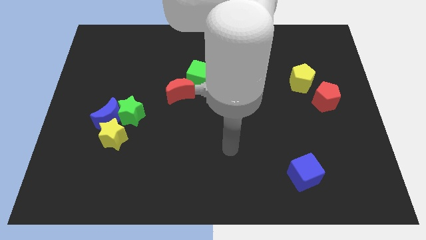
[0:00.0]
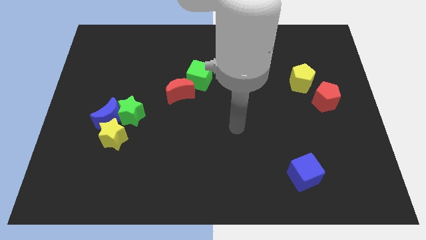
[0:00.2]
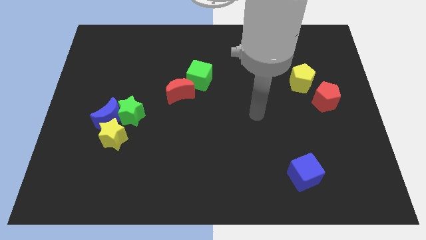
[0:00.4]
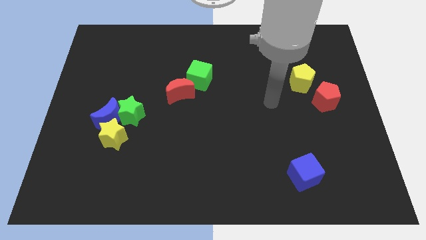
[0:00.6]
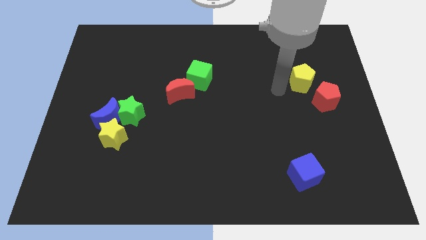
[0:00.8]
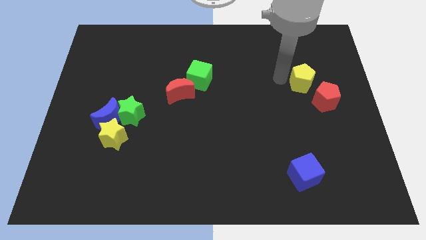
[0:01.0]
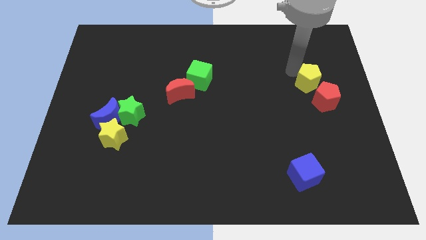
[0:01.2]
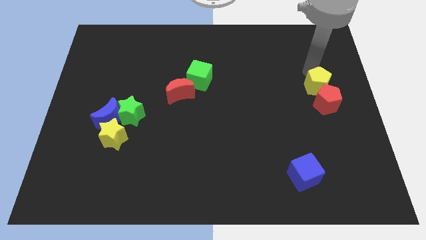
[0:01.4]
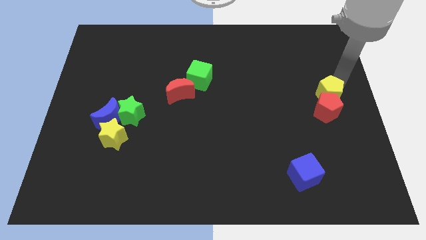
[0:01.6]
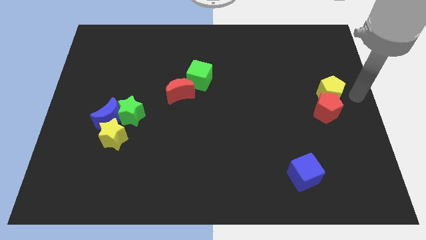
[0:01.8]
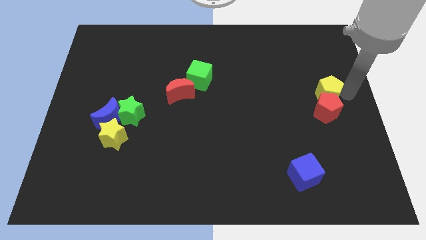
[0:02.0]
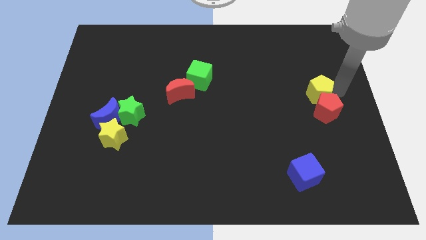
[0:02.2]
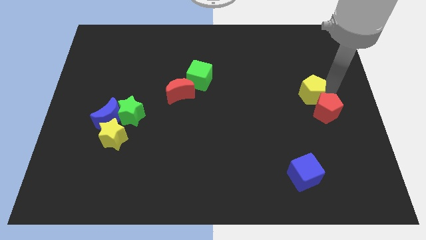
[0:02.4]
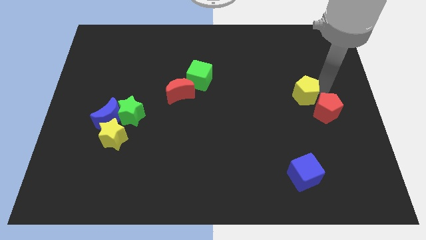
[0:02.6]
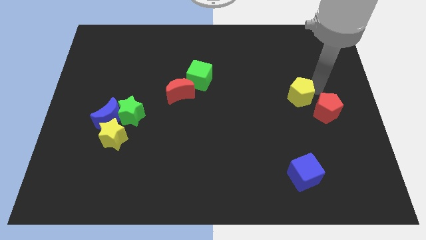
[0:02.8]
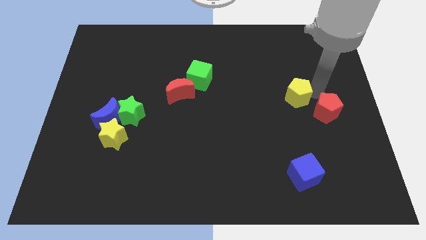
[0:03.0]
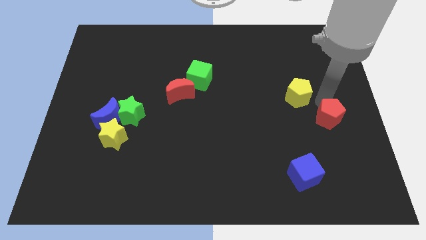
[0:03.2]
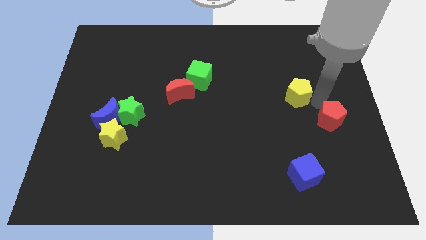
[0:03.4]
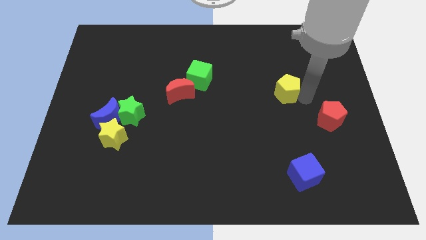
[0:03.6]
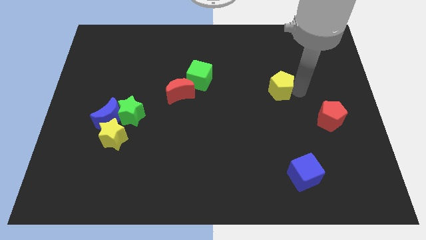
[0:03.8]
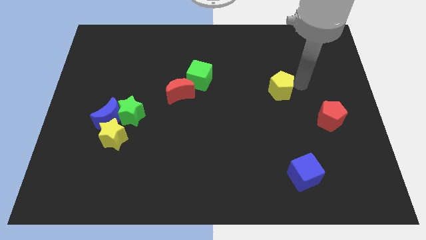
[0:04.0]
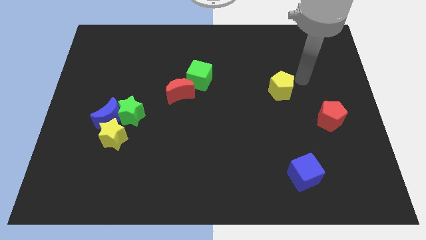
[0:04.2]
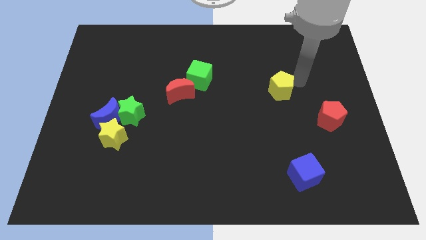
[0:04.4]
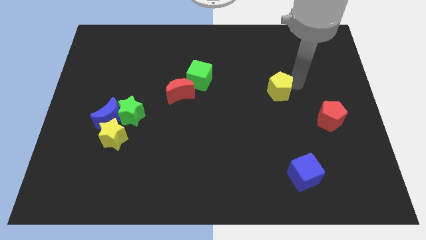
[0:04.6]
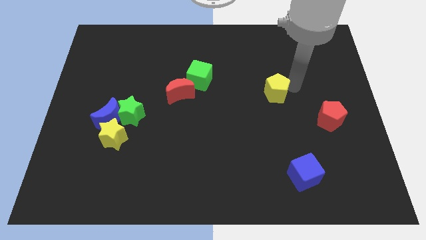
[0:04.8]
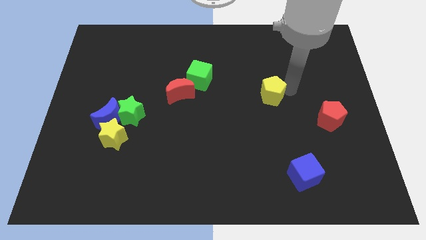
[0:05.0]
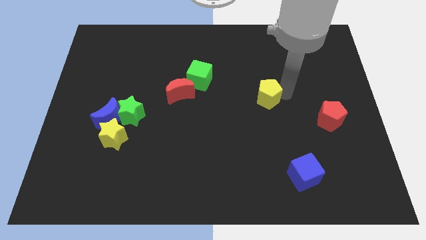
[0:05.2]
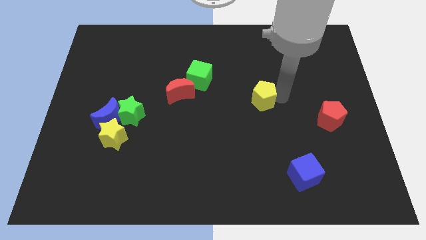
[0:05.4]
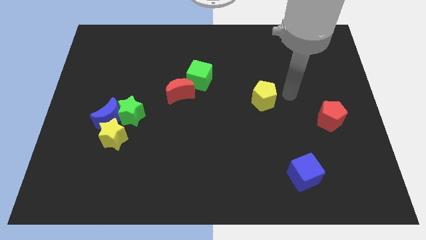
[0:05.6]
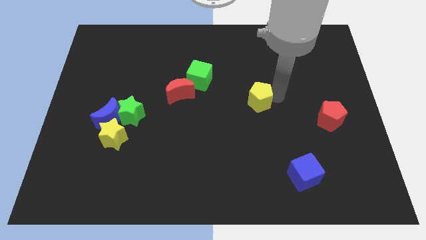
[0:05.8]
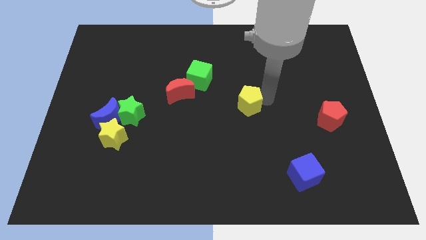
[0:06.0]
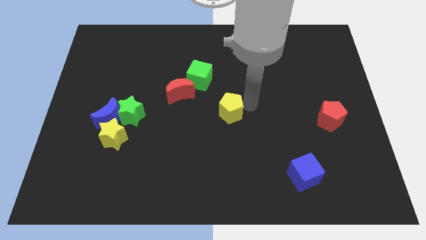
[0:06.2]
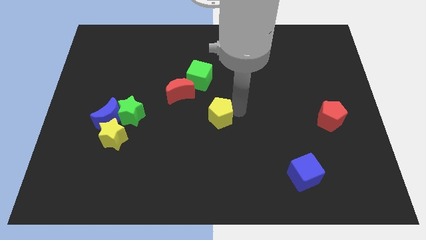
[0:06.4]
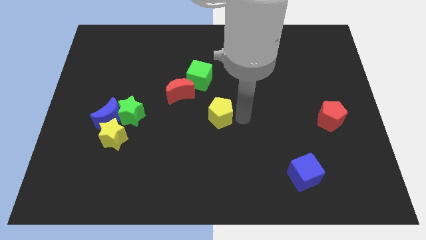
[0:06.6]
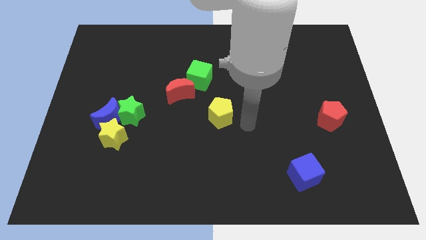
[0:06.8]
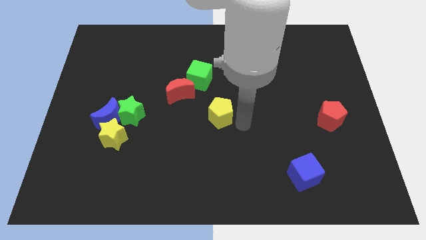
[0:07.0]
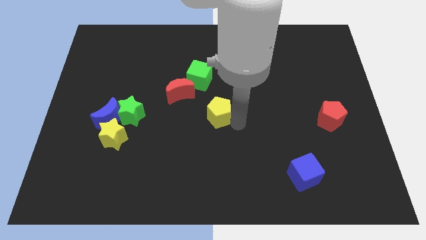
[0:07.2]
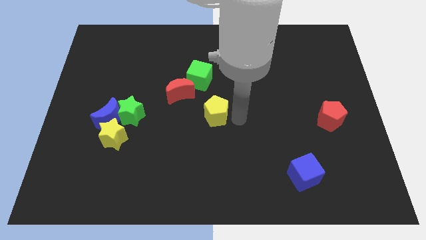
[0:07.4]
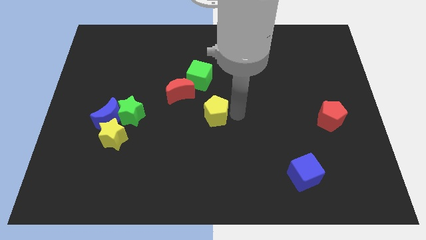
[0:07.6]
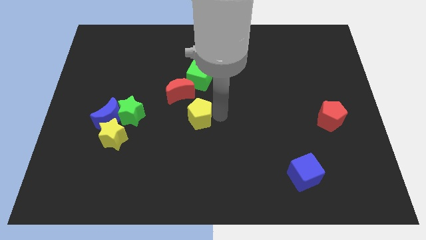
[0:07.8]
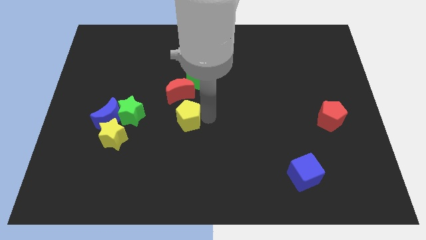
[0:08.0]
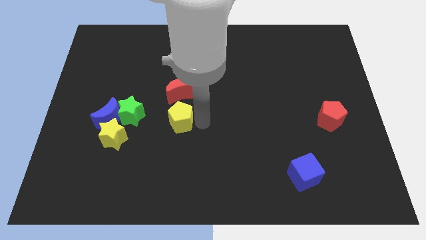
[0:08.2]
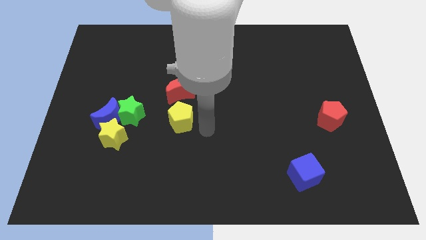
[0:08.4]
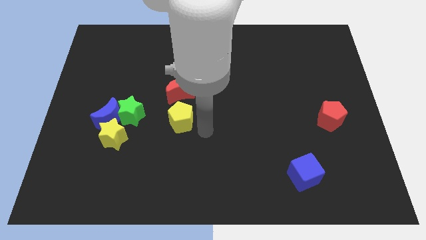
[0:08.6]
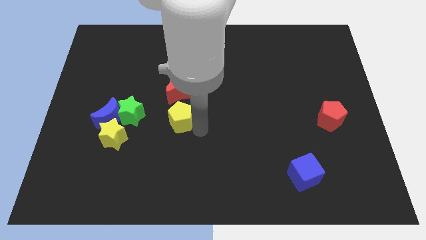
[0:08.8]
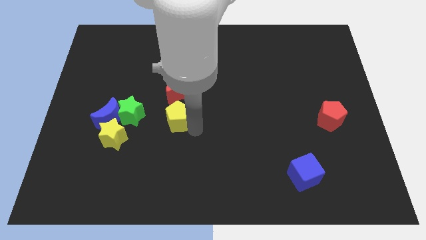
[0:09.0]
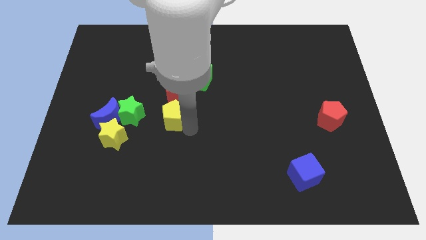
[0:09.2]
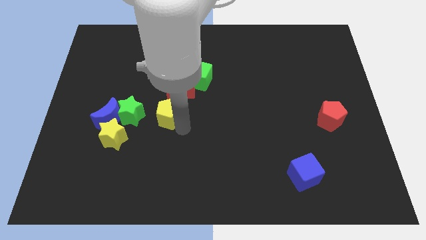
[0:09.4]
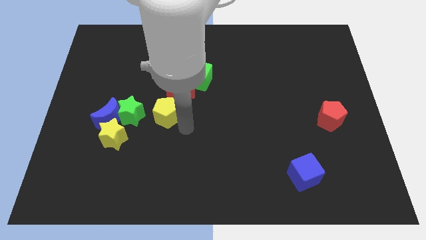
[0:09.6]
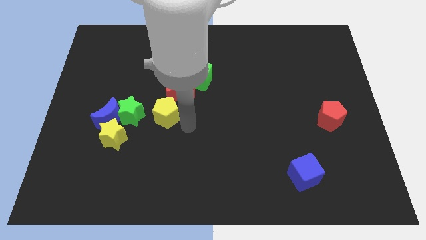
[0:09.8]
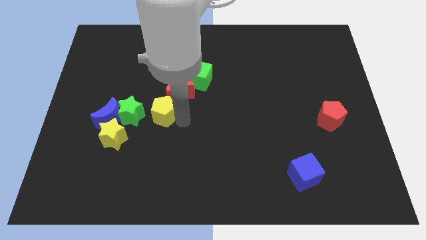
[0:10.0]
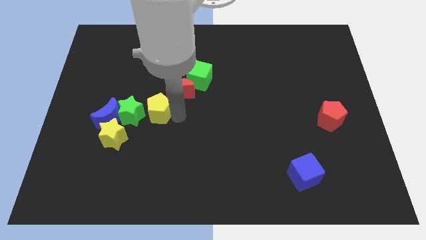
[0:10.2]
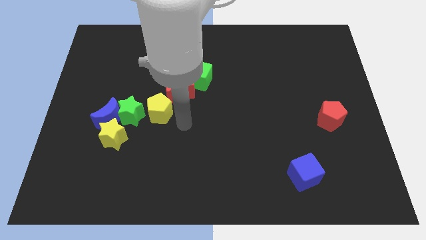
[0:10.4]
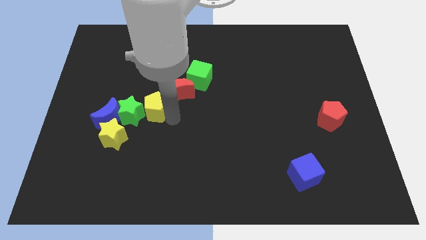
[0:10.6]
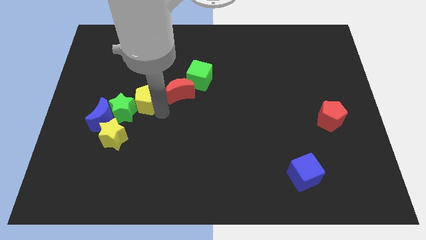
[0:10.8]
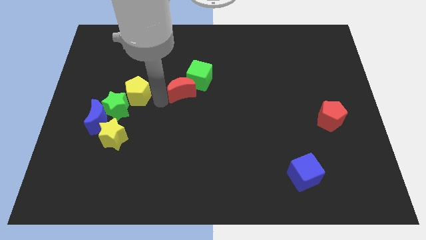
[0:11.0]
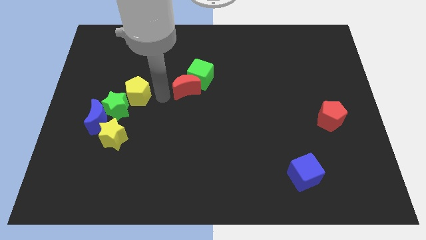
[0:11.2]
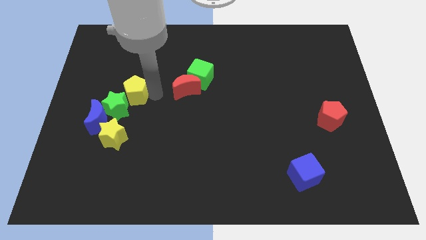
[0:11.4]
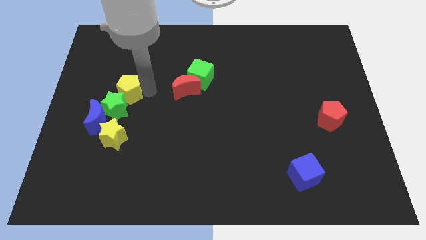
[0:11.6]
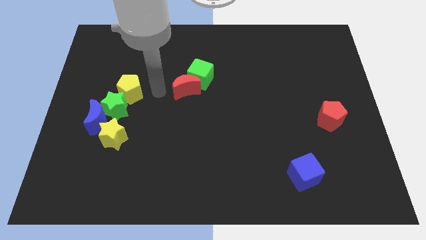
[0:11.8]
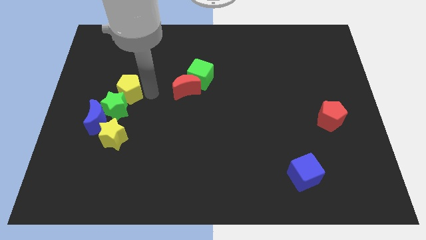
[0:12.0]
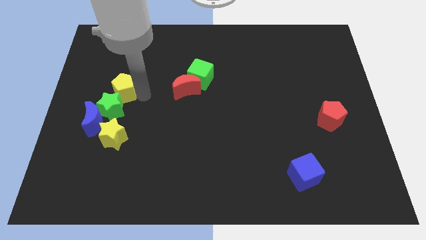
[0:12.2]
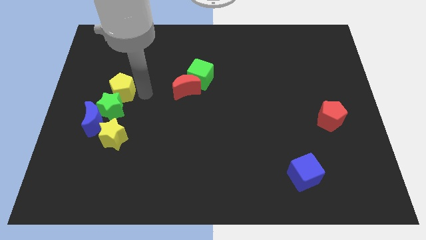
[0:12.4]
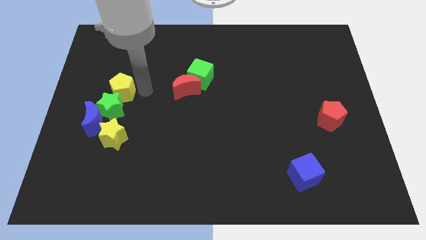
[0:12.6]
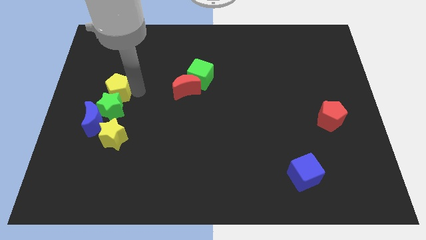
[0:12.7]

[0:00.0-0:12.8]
push the yellow pentagon to the top left of the green star
